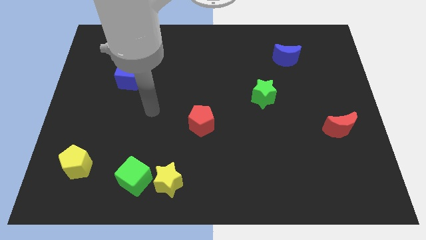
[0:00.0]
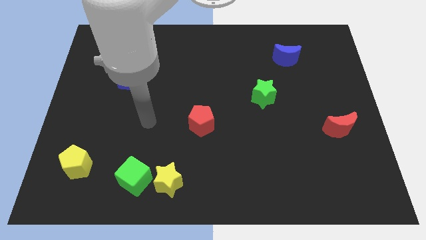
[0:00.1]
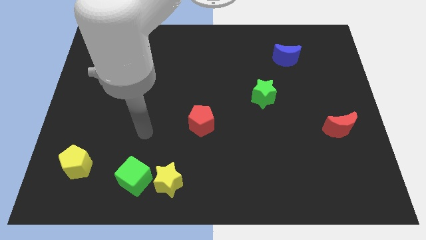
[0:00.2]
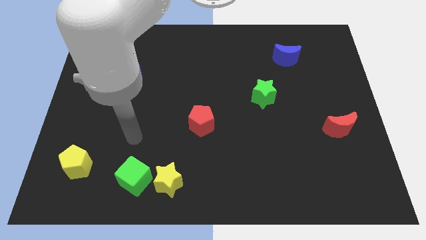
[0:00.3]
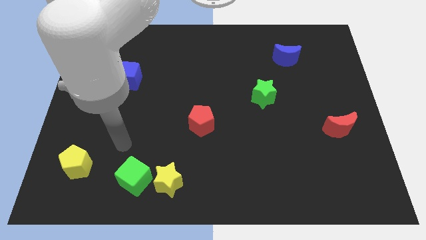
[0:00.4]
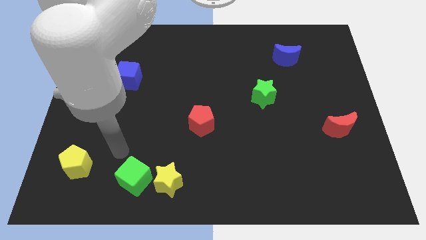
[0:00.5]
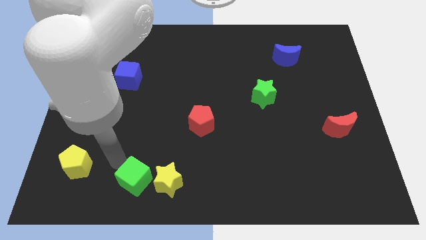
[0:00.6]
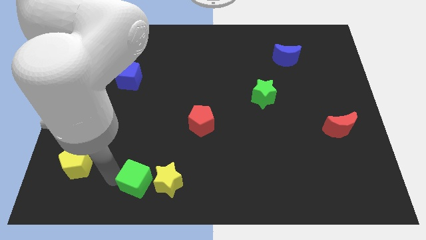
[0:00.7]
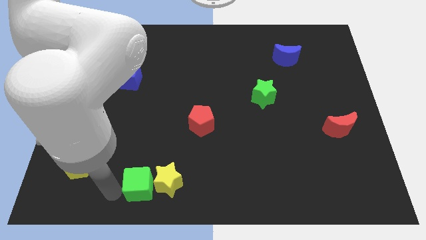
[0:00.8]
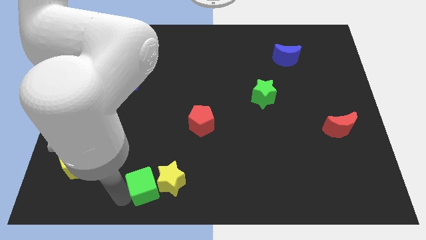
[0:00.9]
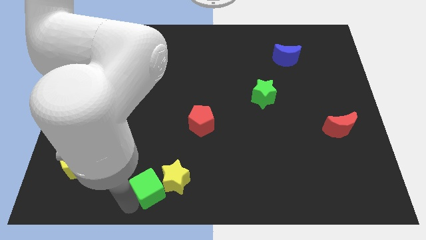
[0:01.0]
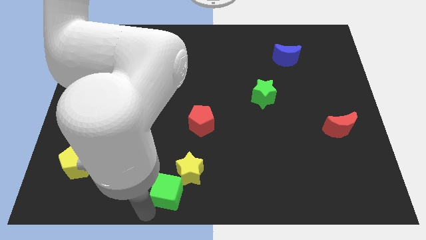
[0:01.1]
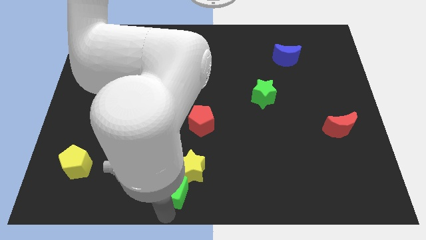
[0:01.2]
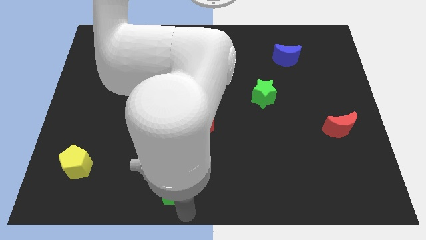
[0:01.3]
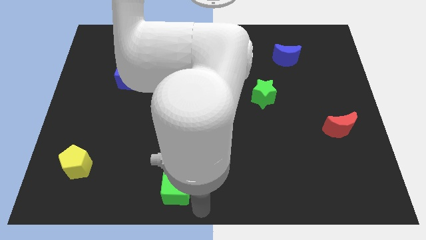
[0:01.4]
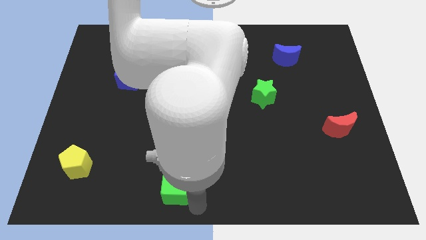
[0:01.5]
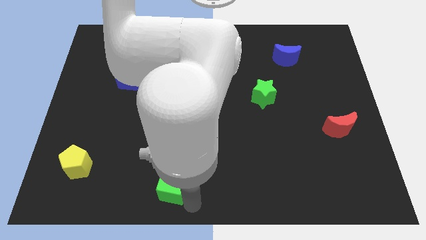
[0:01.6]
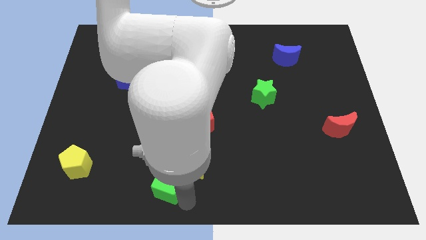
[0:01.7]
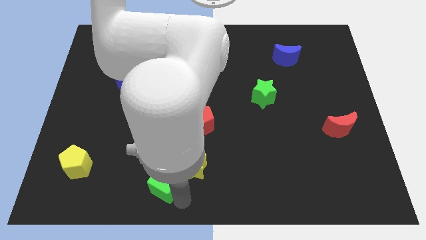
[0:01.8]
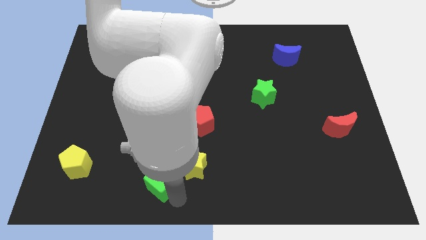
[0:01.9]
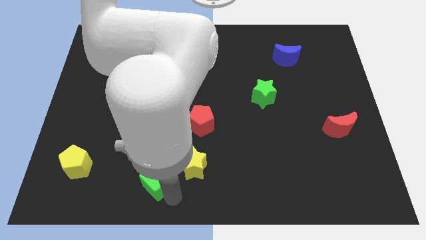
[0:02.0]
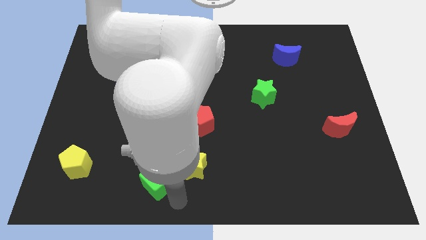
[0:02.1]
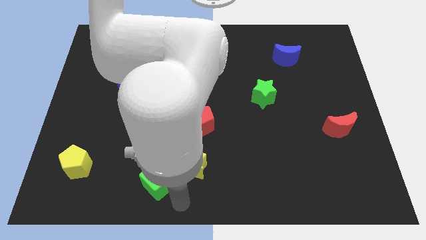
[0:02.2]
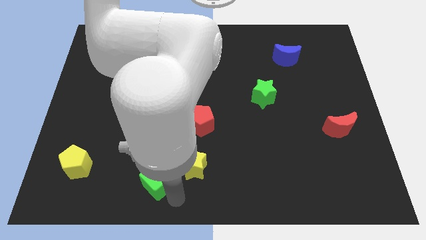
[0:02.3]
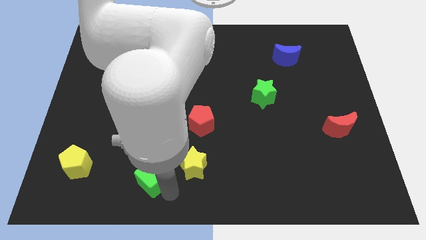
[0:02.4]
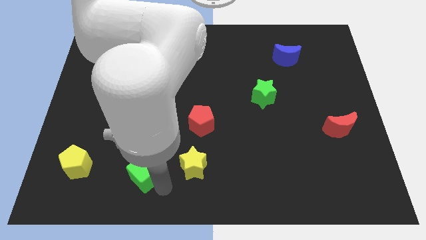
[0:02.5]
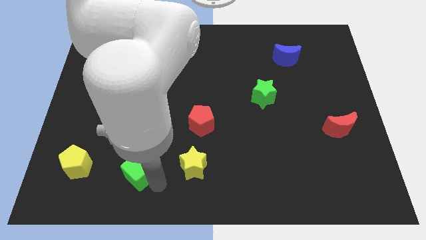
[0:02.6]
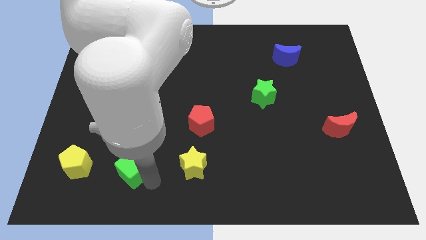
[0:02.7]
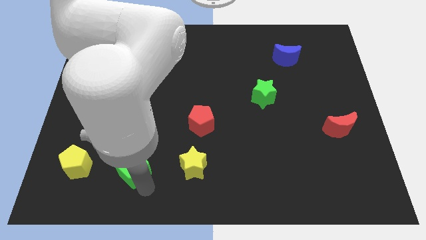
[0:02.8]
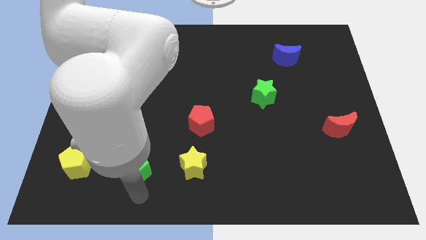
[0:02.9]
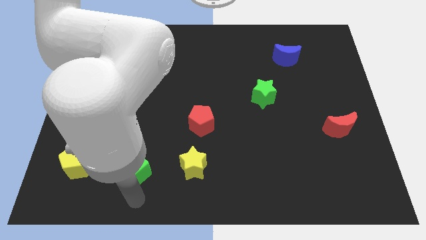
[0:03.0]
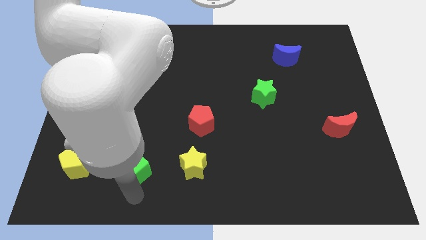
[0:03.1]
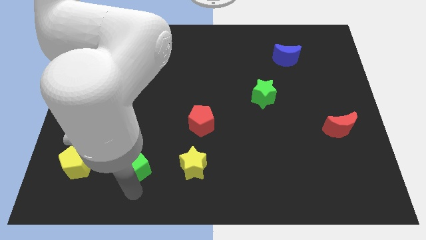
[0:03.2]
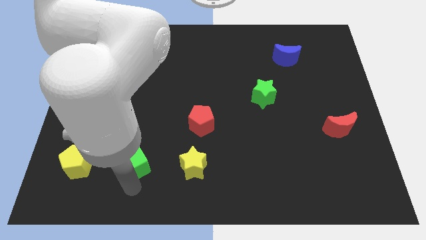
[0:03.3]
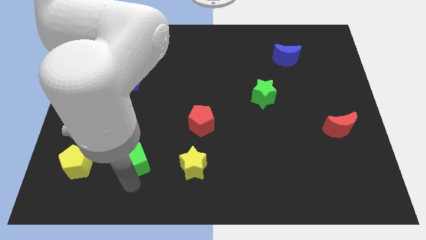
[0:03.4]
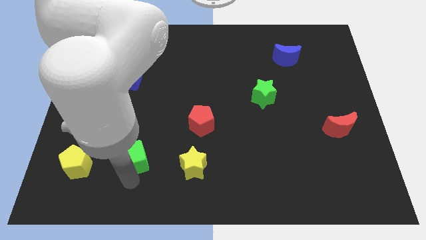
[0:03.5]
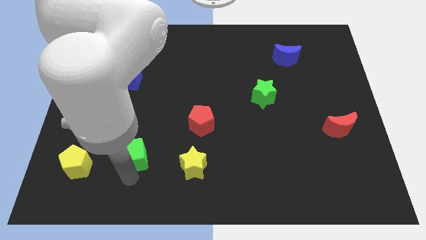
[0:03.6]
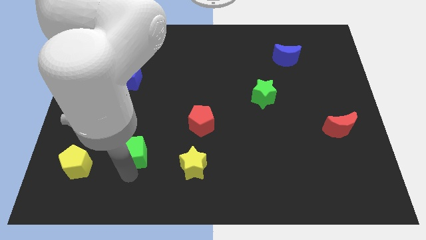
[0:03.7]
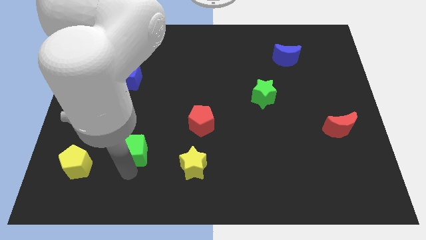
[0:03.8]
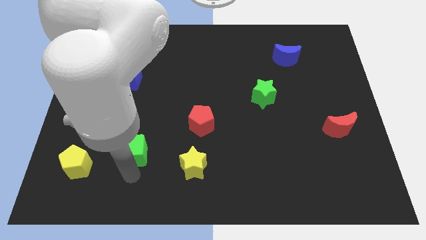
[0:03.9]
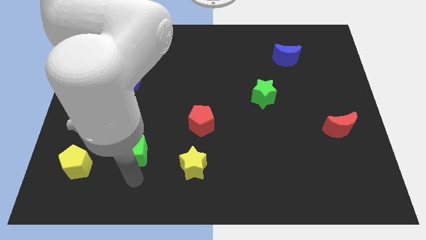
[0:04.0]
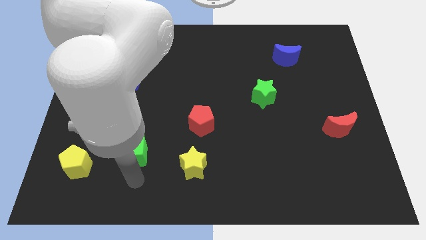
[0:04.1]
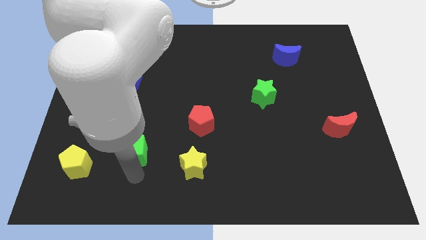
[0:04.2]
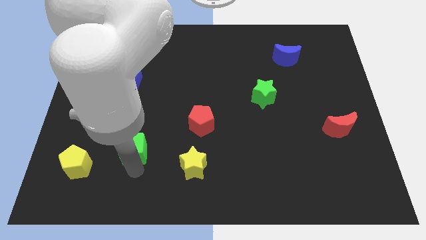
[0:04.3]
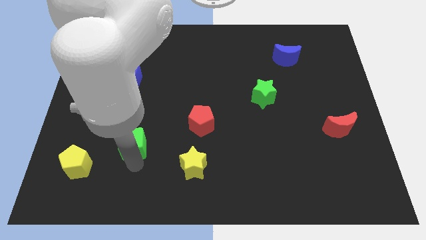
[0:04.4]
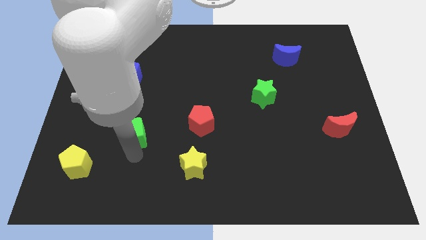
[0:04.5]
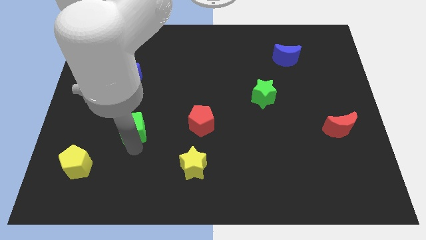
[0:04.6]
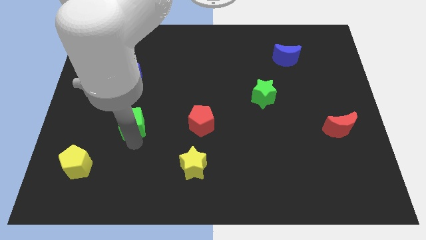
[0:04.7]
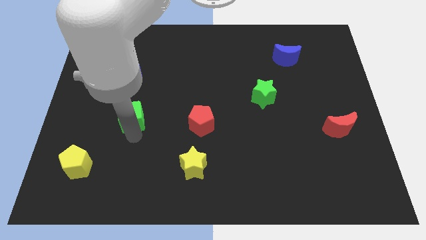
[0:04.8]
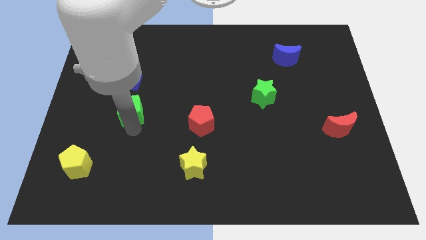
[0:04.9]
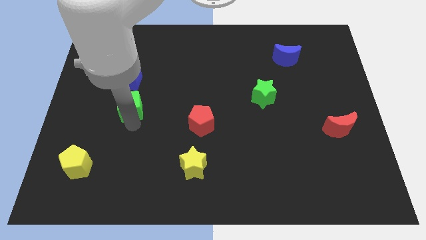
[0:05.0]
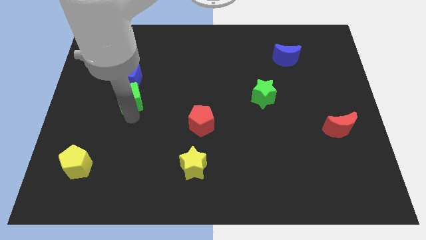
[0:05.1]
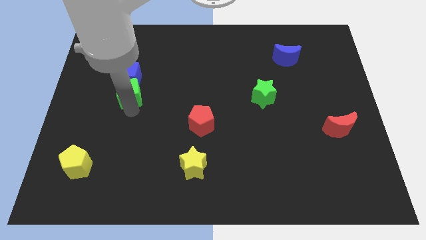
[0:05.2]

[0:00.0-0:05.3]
slide the green cube to the blue cube

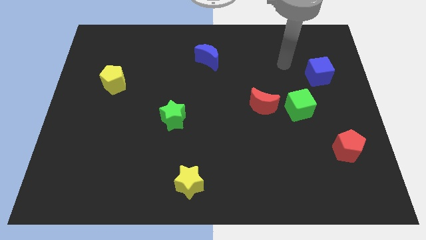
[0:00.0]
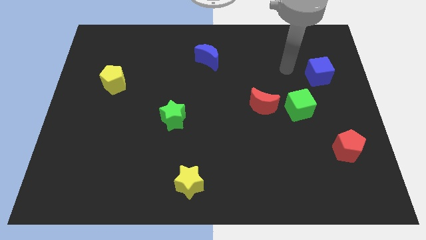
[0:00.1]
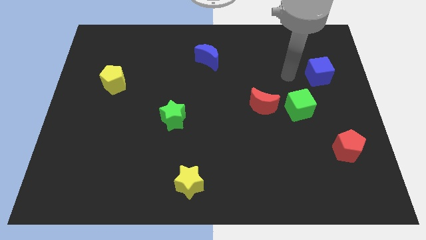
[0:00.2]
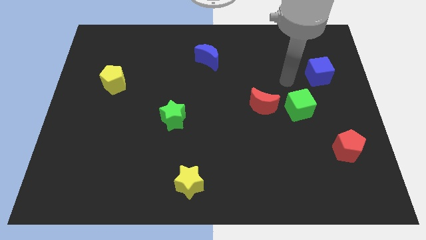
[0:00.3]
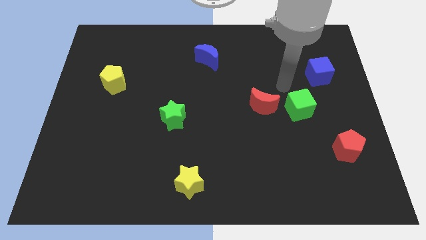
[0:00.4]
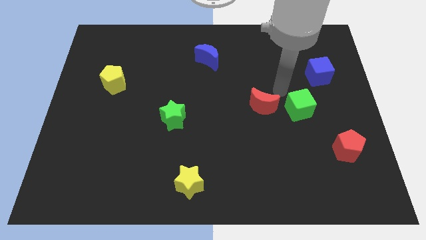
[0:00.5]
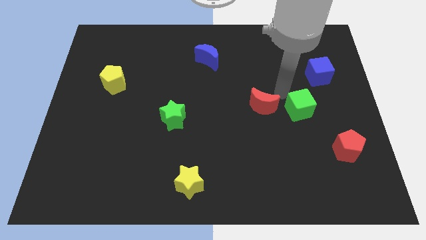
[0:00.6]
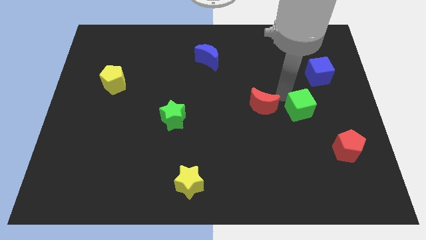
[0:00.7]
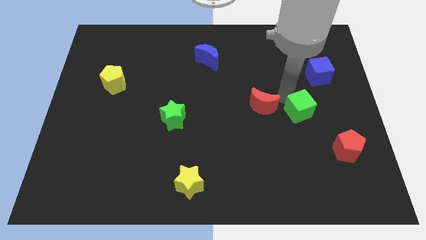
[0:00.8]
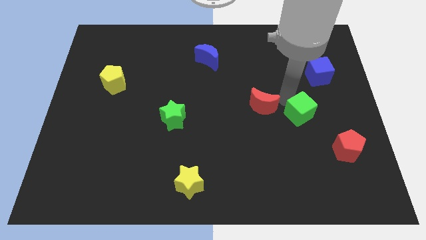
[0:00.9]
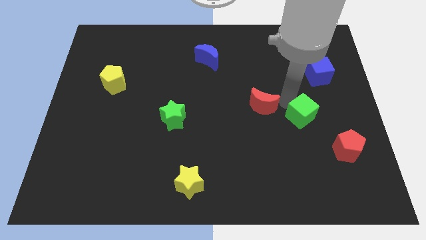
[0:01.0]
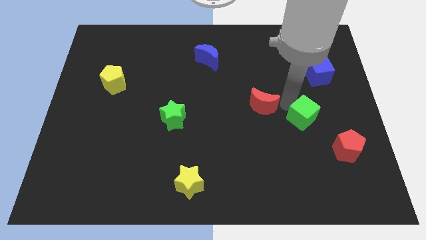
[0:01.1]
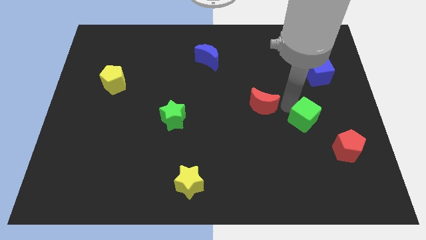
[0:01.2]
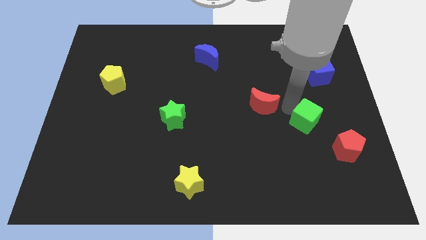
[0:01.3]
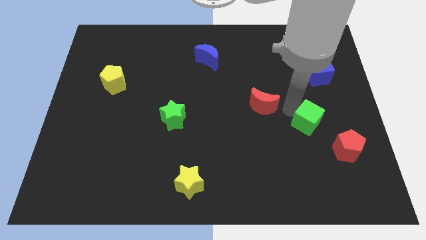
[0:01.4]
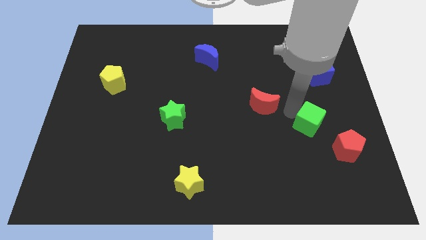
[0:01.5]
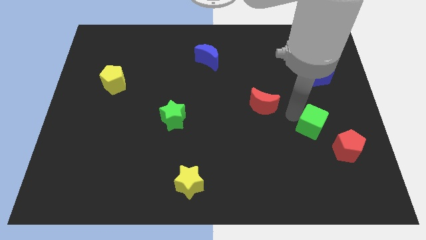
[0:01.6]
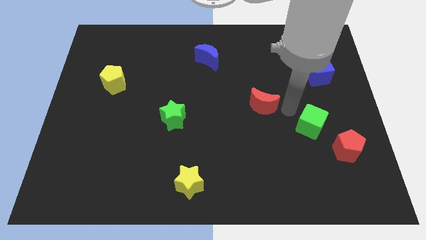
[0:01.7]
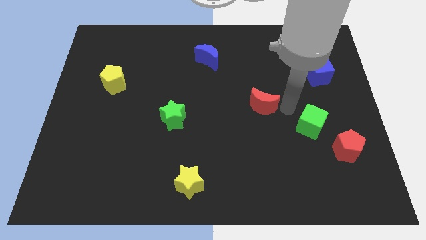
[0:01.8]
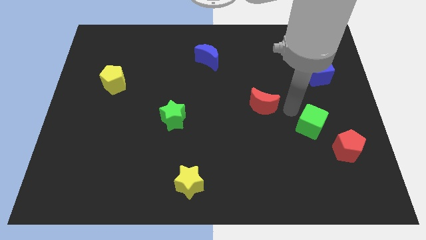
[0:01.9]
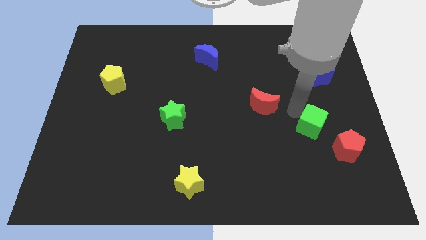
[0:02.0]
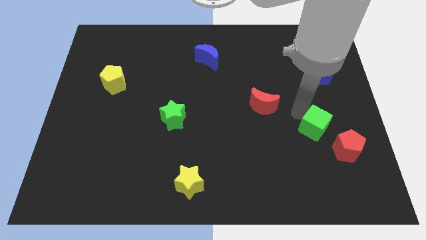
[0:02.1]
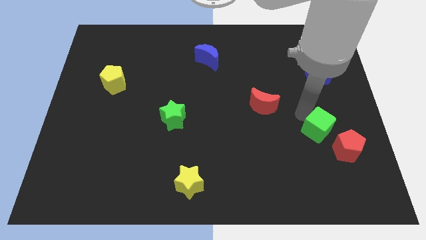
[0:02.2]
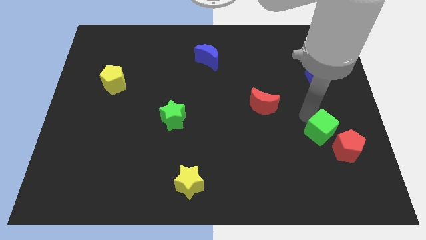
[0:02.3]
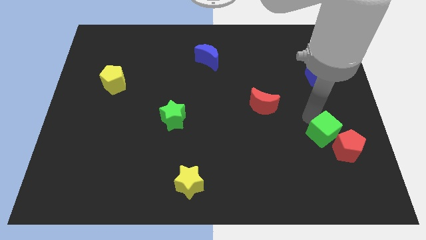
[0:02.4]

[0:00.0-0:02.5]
put the green cube to the red pentagon
